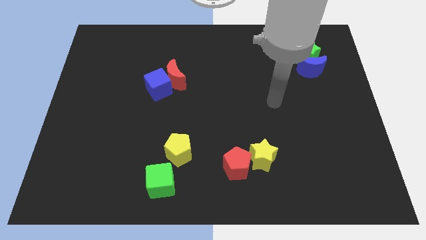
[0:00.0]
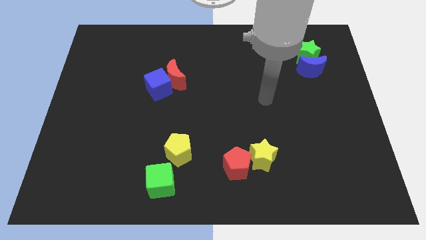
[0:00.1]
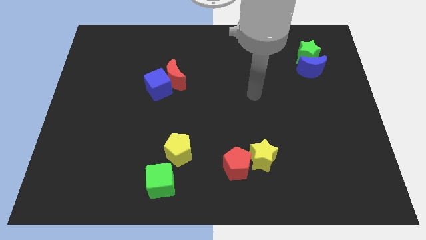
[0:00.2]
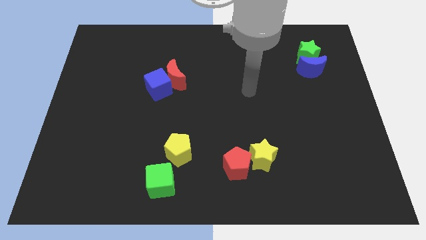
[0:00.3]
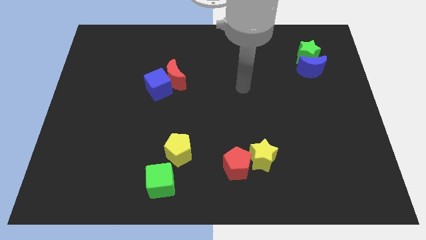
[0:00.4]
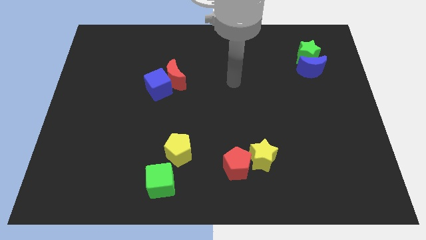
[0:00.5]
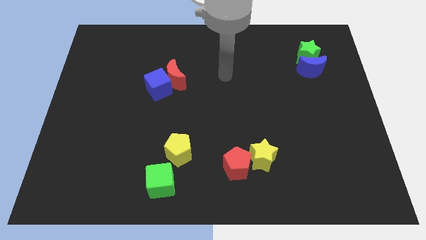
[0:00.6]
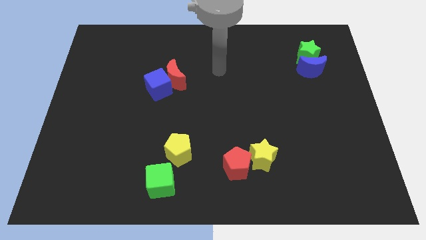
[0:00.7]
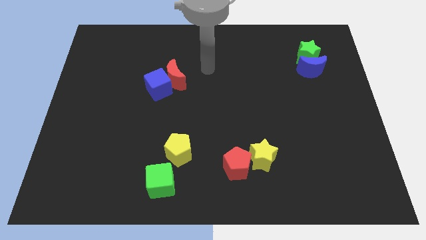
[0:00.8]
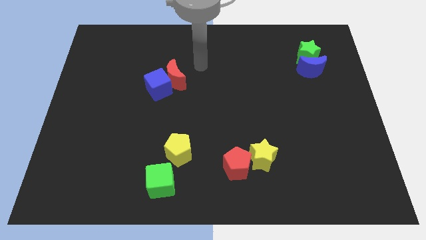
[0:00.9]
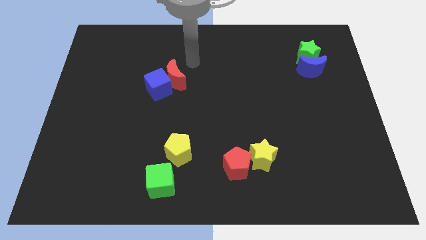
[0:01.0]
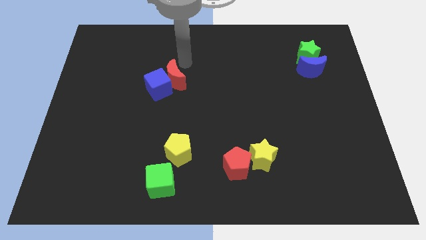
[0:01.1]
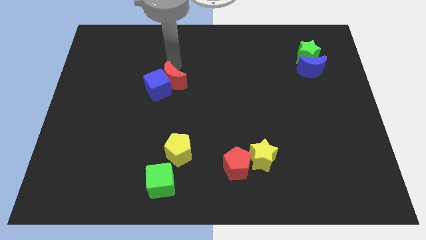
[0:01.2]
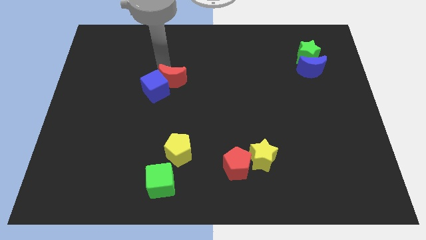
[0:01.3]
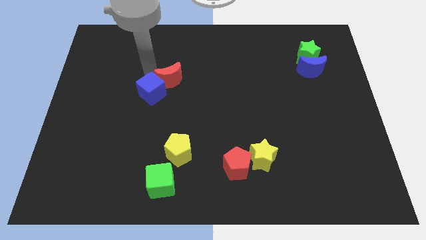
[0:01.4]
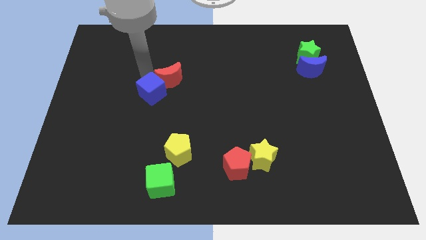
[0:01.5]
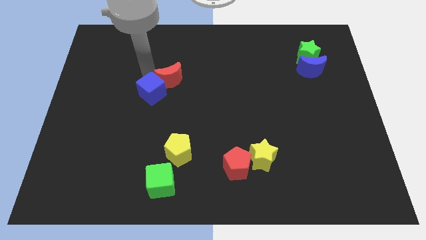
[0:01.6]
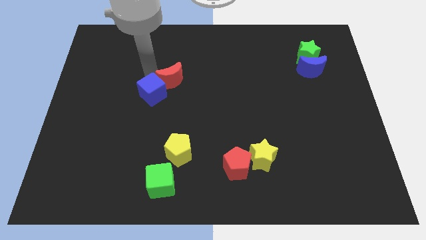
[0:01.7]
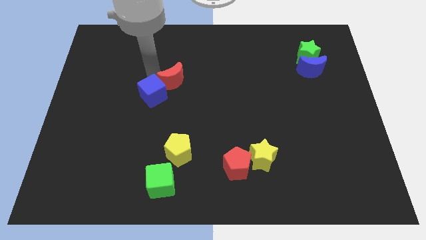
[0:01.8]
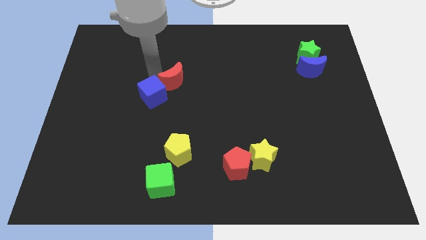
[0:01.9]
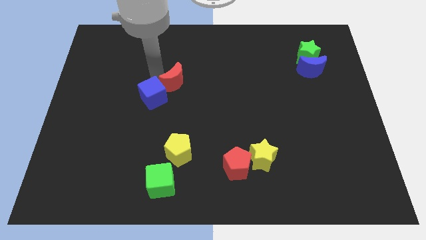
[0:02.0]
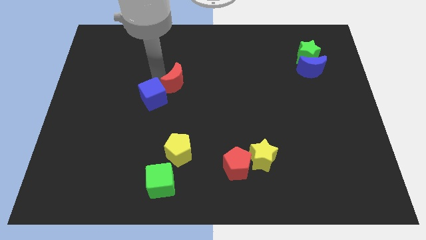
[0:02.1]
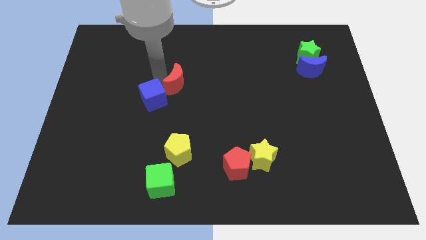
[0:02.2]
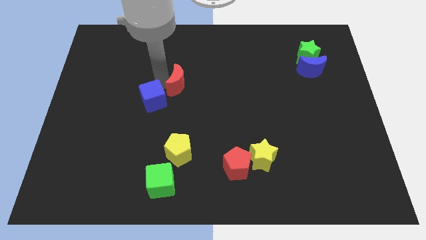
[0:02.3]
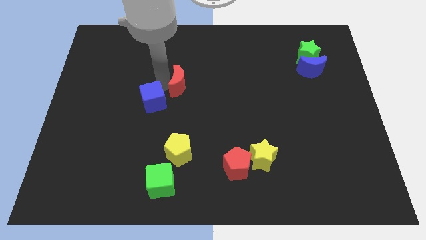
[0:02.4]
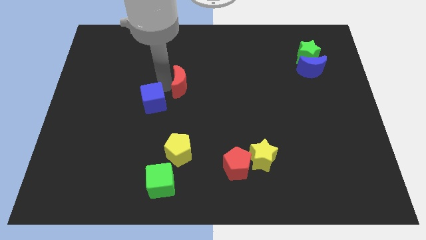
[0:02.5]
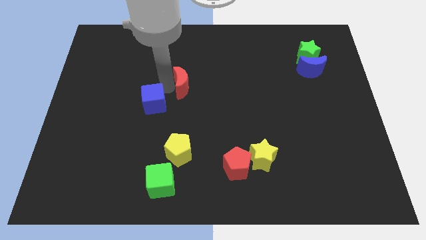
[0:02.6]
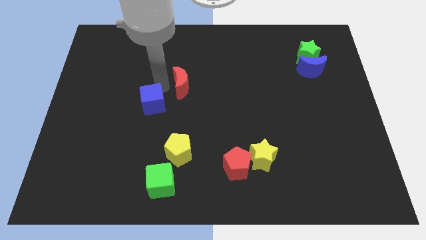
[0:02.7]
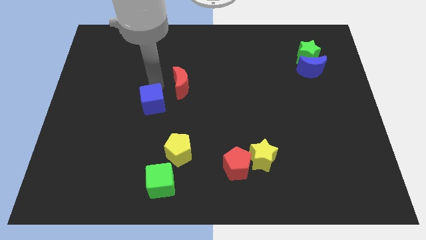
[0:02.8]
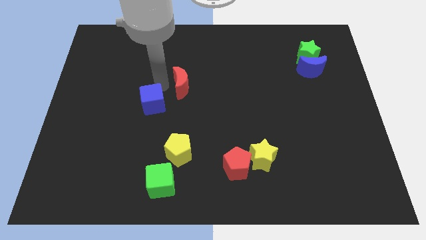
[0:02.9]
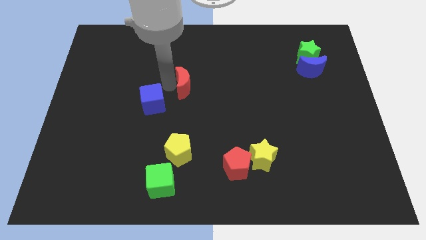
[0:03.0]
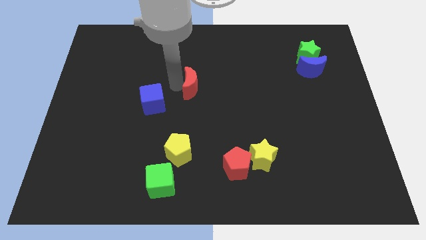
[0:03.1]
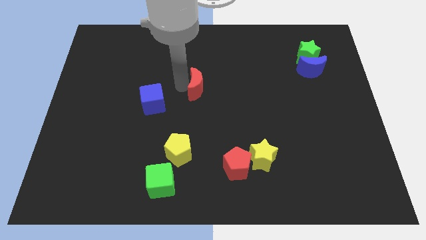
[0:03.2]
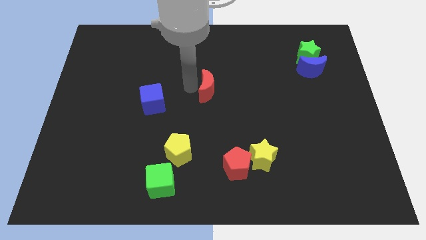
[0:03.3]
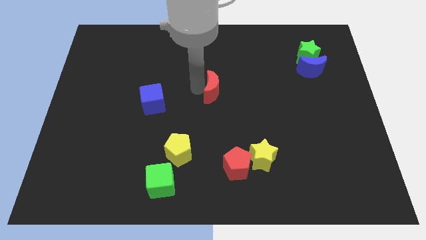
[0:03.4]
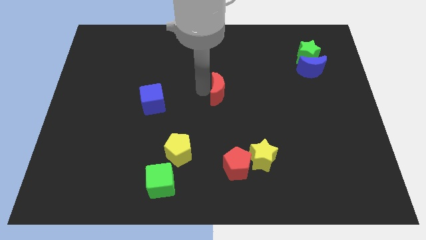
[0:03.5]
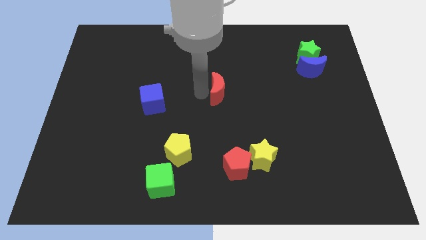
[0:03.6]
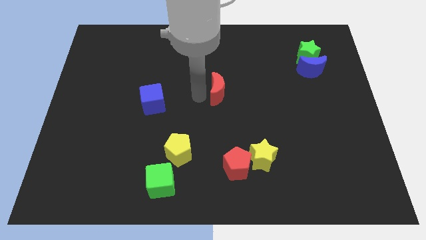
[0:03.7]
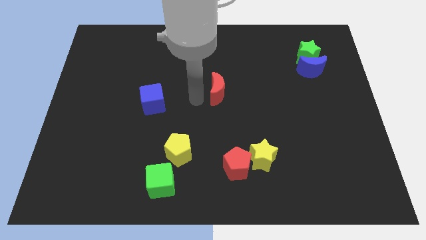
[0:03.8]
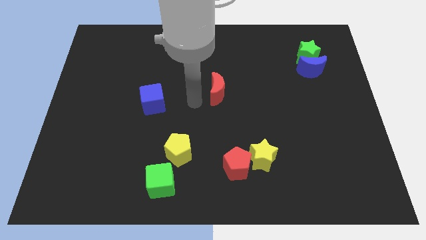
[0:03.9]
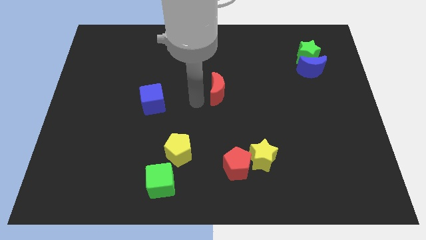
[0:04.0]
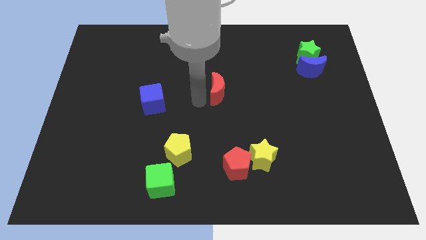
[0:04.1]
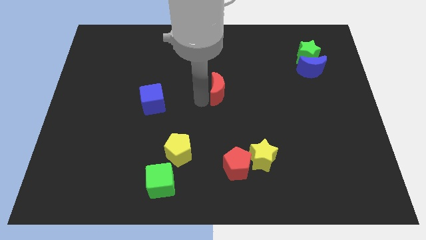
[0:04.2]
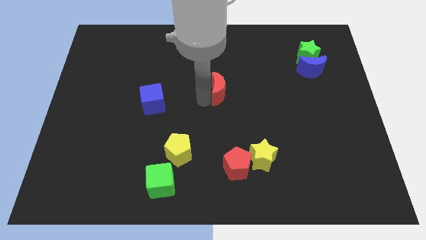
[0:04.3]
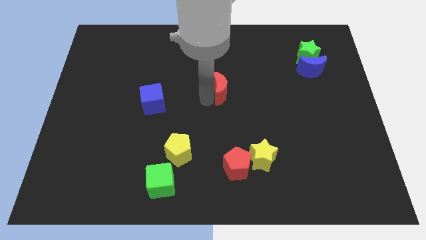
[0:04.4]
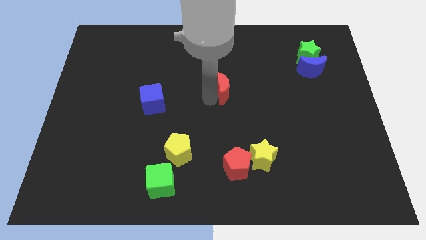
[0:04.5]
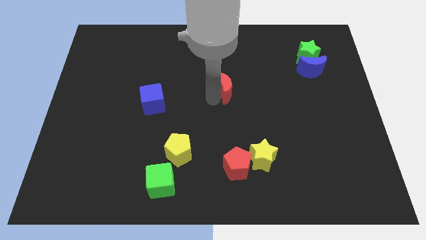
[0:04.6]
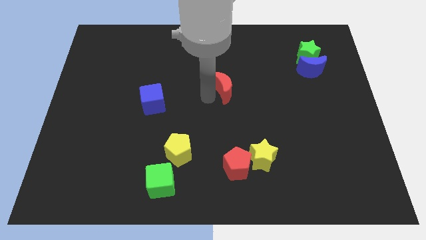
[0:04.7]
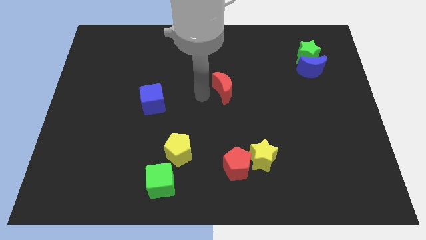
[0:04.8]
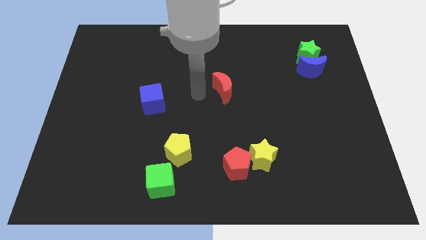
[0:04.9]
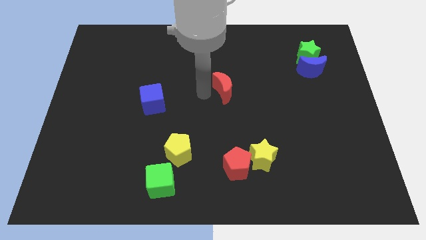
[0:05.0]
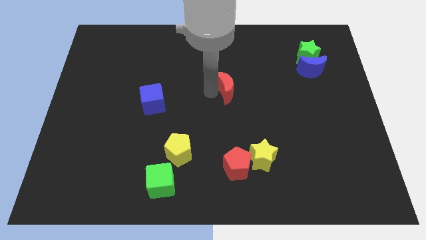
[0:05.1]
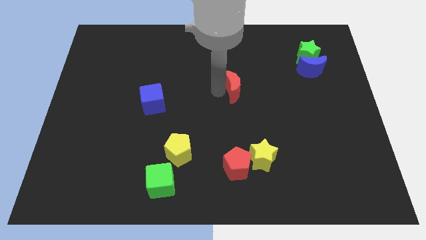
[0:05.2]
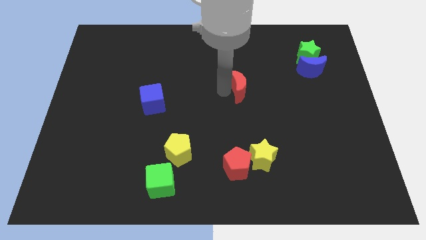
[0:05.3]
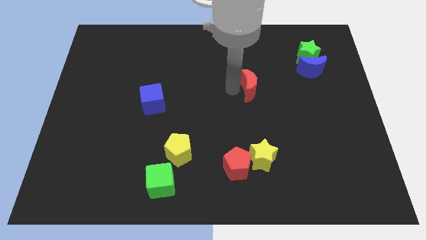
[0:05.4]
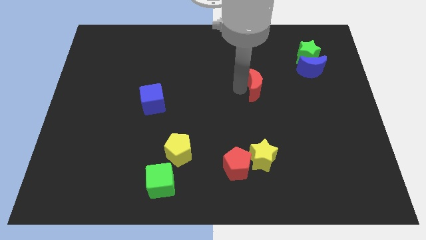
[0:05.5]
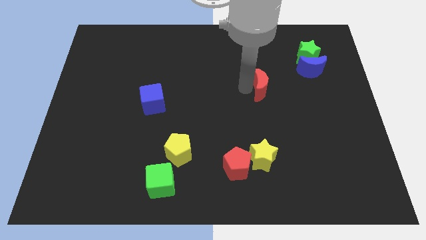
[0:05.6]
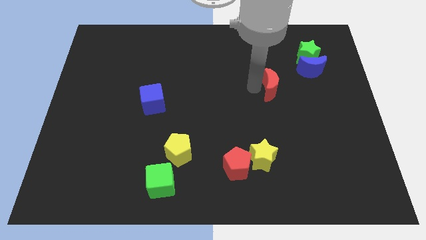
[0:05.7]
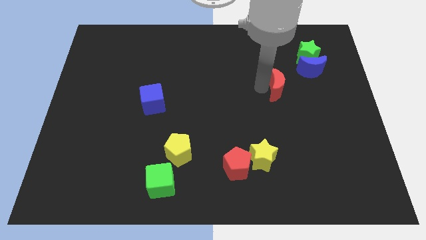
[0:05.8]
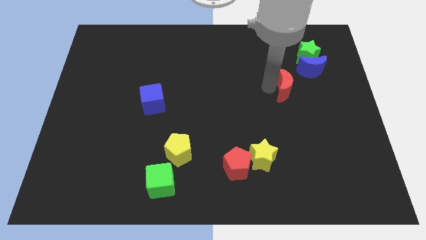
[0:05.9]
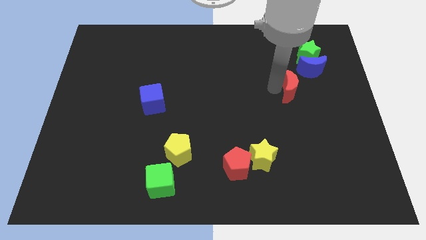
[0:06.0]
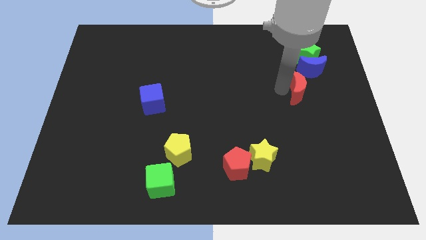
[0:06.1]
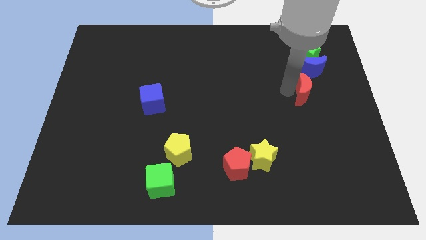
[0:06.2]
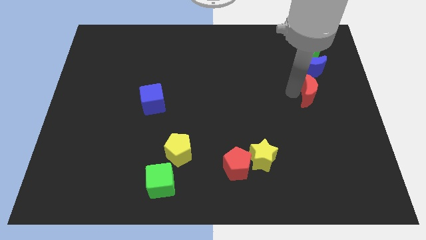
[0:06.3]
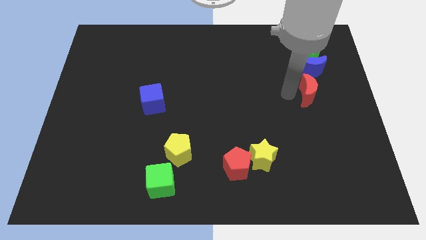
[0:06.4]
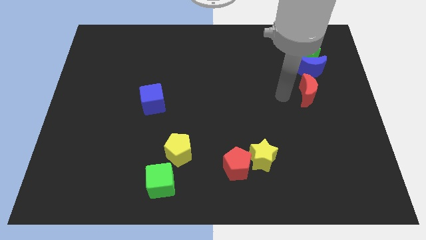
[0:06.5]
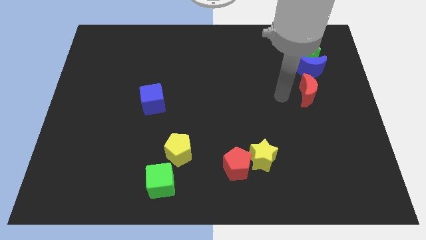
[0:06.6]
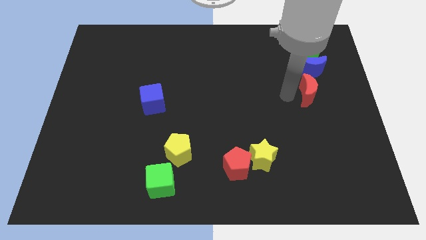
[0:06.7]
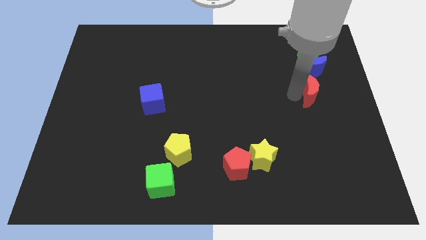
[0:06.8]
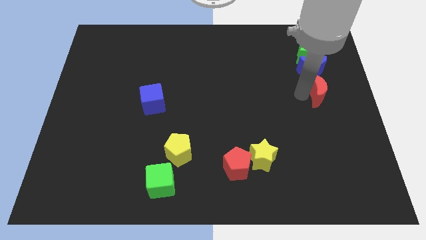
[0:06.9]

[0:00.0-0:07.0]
slide the red moon to the center right

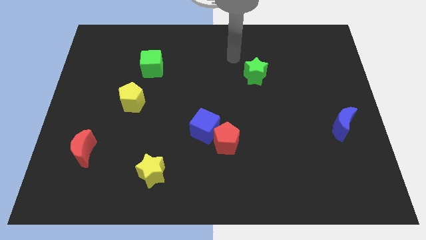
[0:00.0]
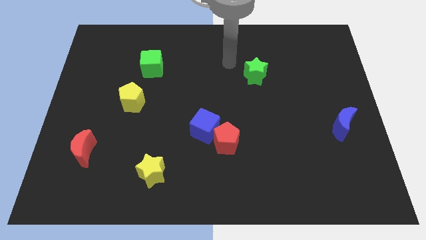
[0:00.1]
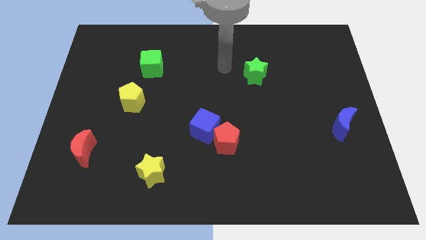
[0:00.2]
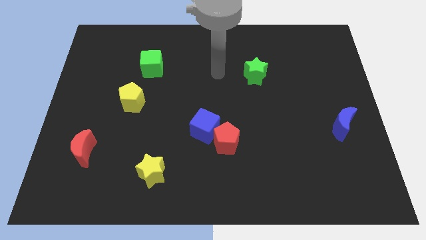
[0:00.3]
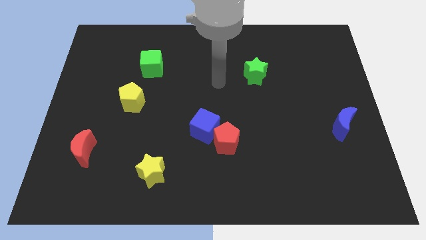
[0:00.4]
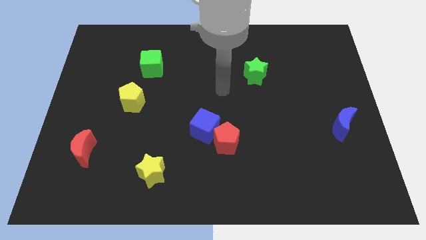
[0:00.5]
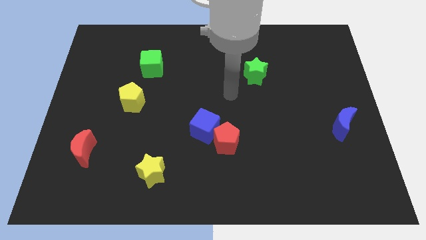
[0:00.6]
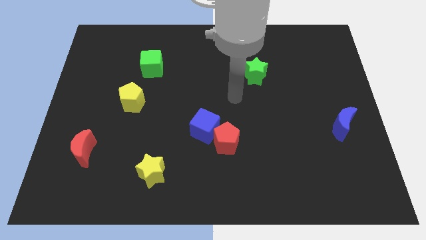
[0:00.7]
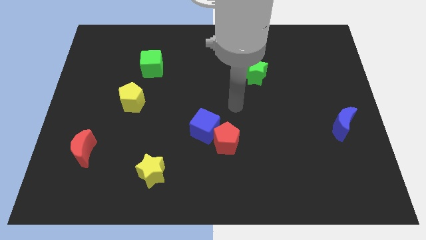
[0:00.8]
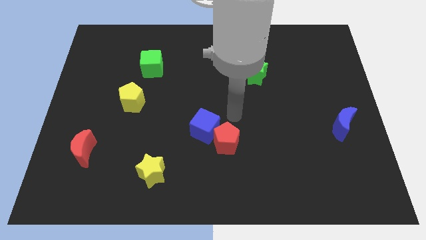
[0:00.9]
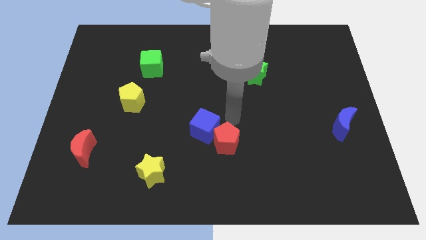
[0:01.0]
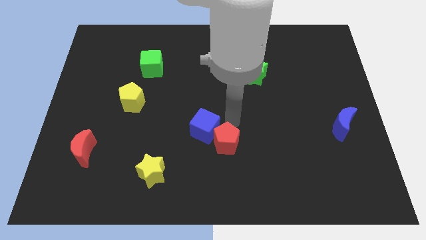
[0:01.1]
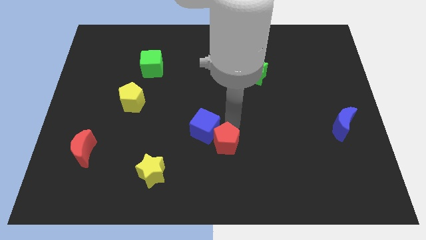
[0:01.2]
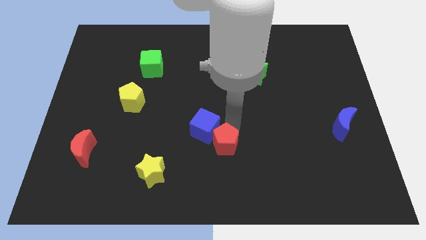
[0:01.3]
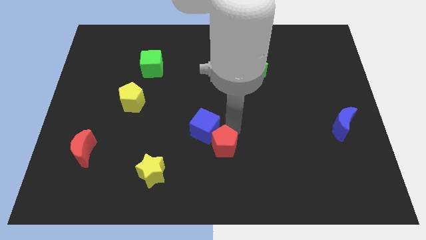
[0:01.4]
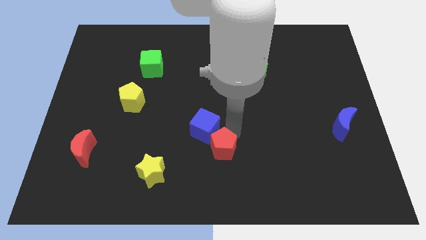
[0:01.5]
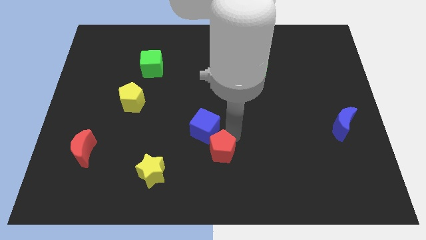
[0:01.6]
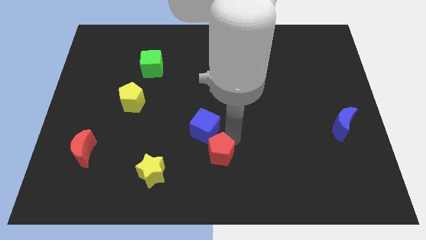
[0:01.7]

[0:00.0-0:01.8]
put the red pentagon to the bottom side
